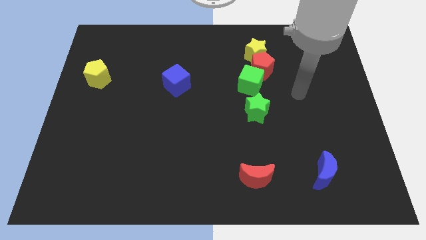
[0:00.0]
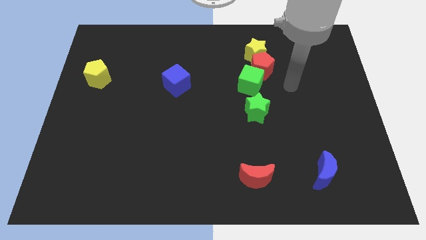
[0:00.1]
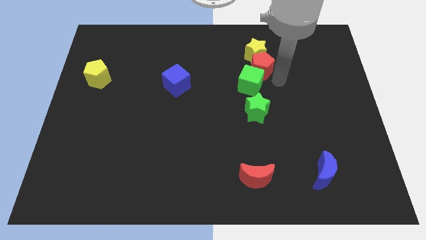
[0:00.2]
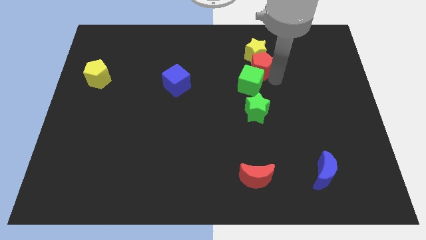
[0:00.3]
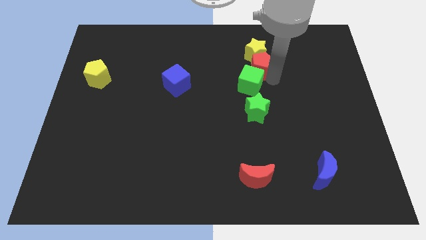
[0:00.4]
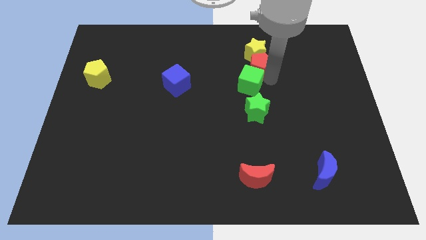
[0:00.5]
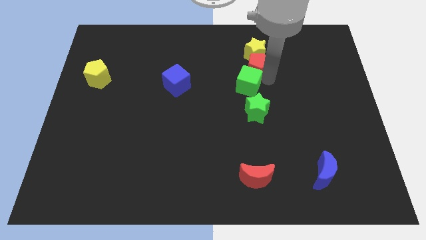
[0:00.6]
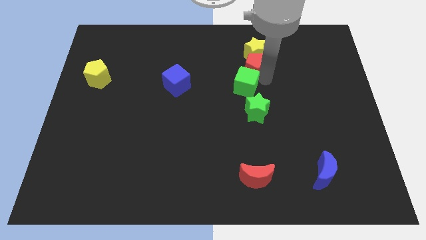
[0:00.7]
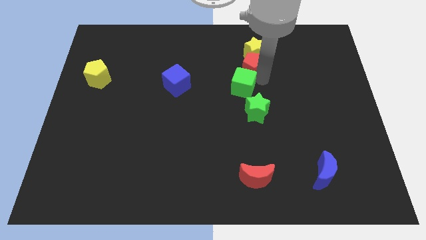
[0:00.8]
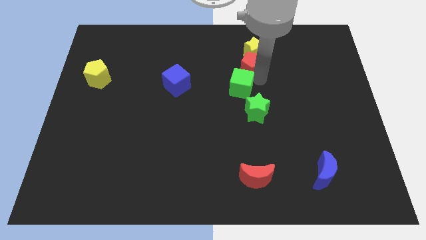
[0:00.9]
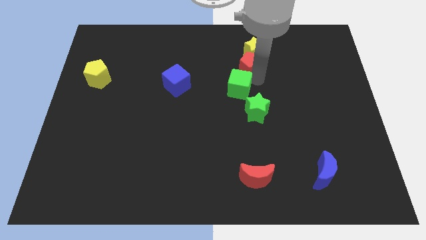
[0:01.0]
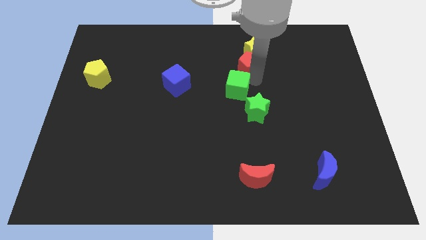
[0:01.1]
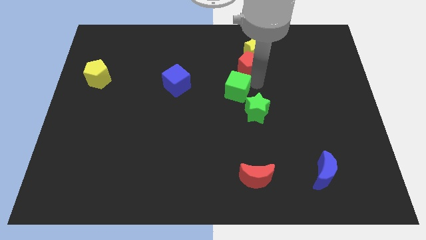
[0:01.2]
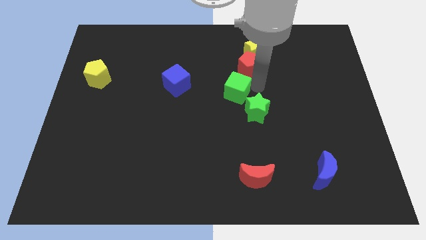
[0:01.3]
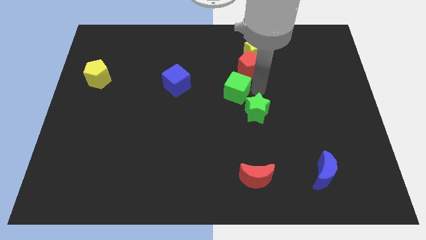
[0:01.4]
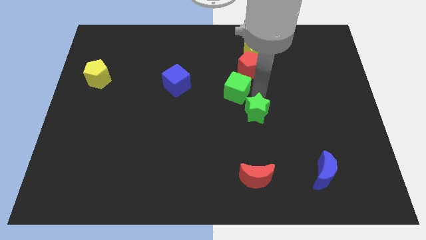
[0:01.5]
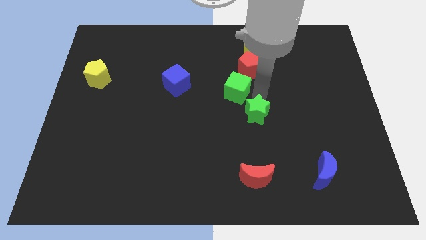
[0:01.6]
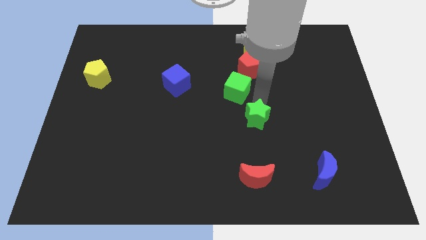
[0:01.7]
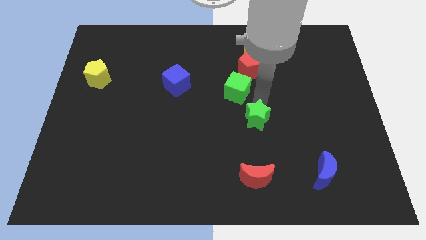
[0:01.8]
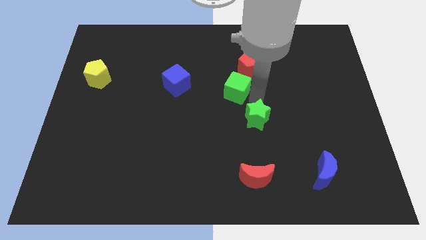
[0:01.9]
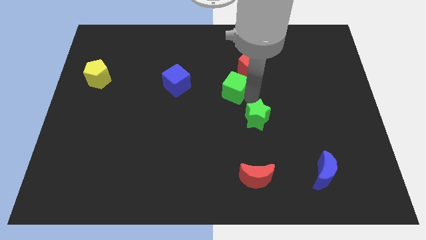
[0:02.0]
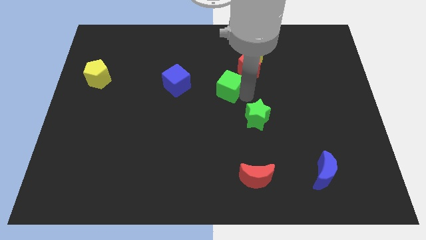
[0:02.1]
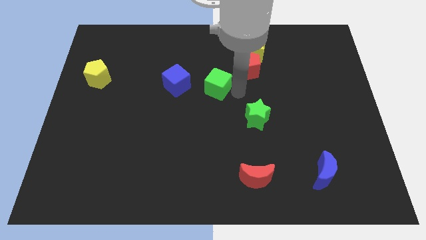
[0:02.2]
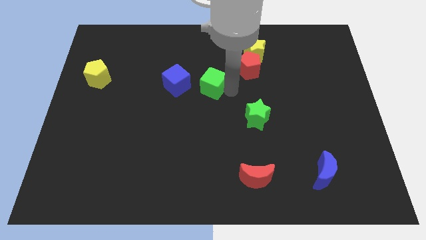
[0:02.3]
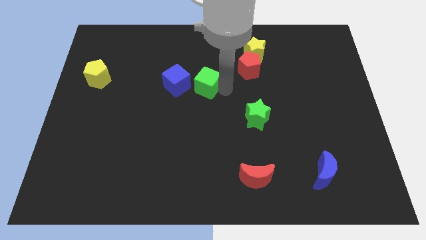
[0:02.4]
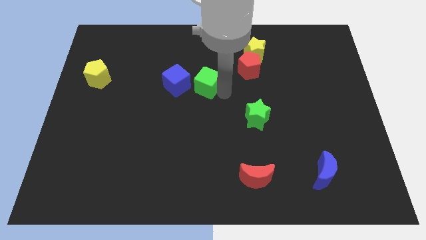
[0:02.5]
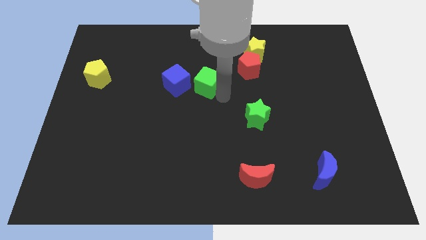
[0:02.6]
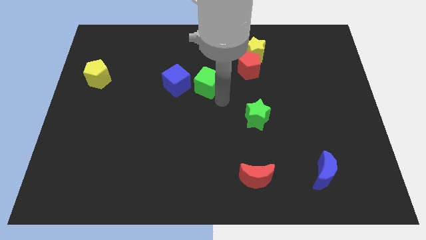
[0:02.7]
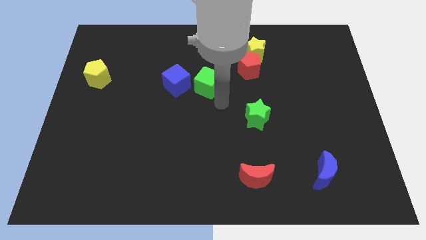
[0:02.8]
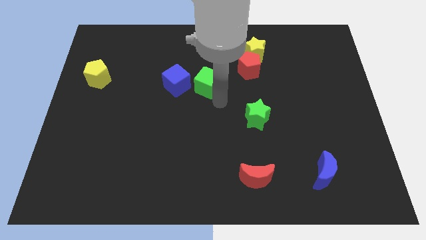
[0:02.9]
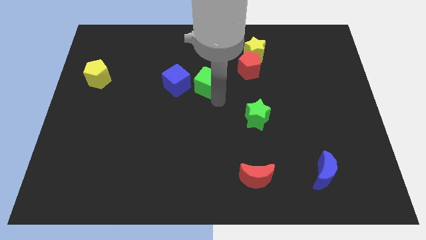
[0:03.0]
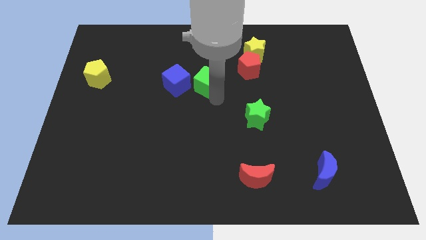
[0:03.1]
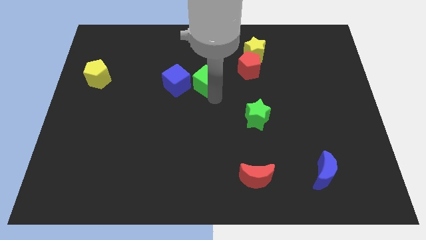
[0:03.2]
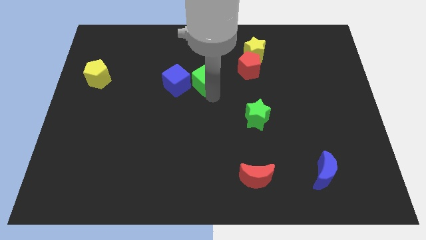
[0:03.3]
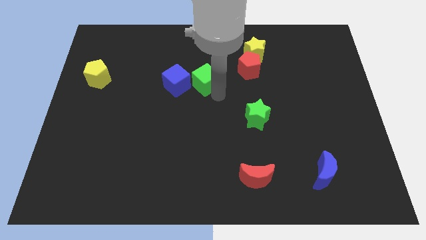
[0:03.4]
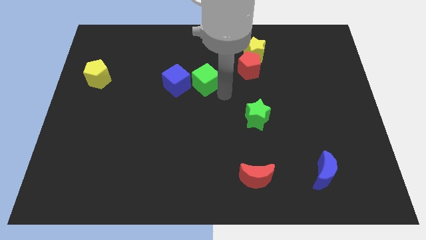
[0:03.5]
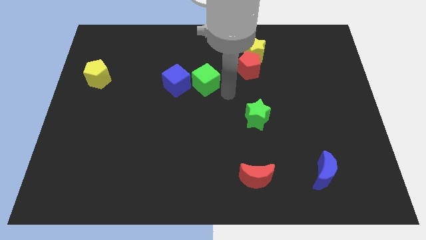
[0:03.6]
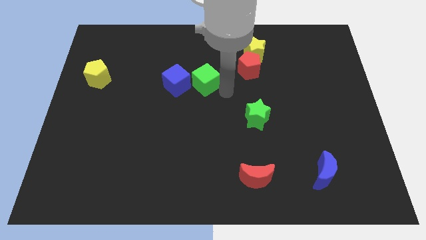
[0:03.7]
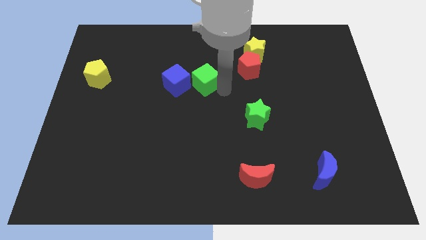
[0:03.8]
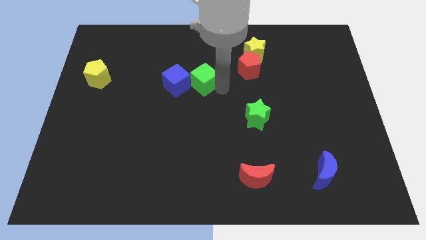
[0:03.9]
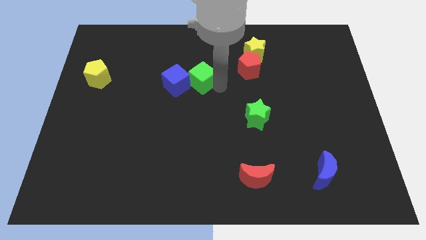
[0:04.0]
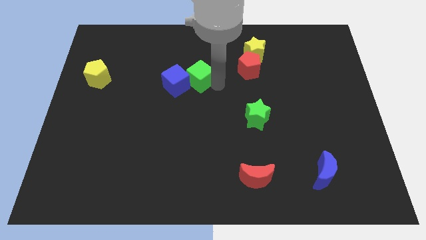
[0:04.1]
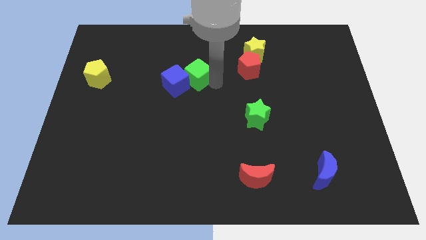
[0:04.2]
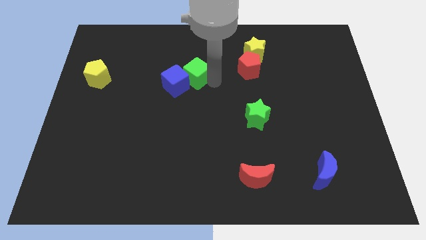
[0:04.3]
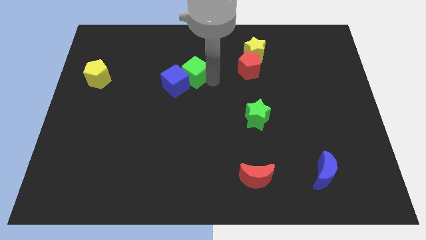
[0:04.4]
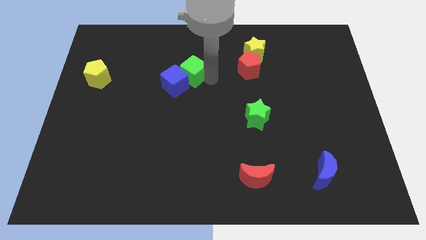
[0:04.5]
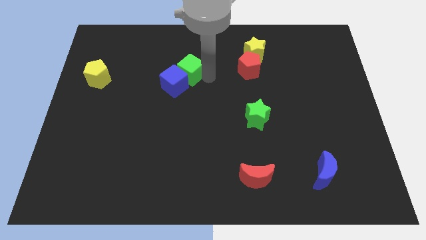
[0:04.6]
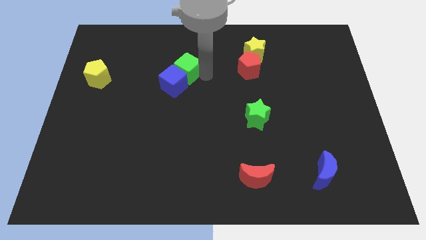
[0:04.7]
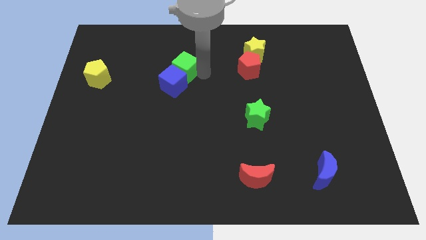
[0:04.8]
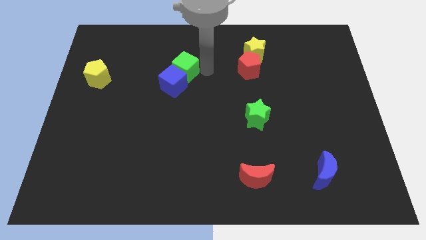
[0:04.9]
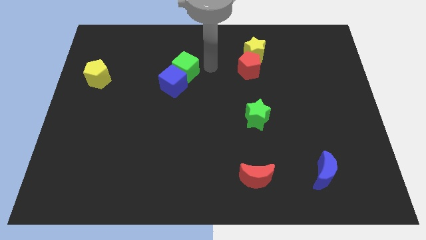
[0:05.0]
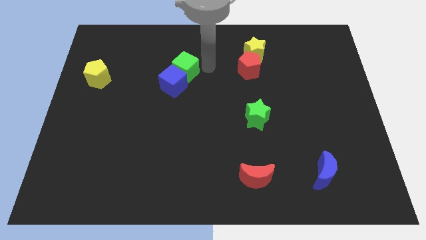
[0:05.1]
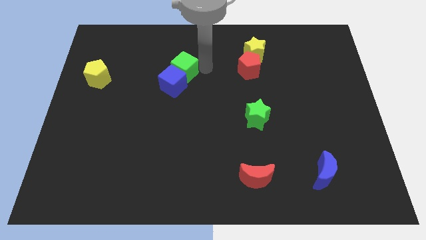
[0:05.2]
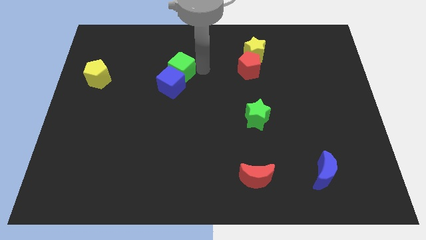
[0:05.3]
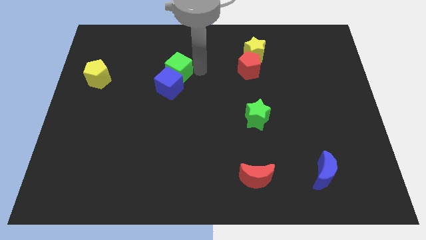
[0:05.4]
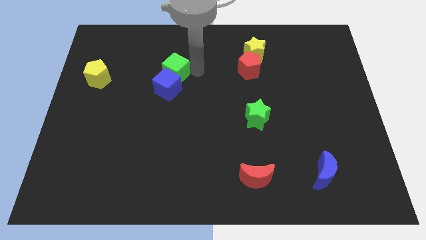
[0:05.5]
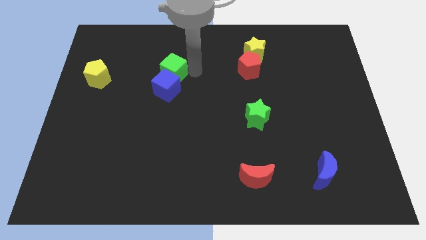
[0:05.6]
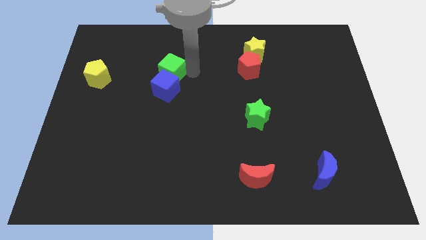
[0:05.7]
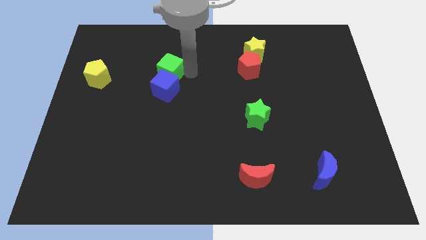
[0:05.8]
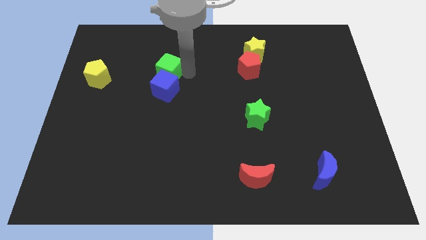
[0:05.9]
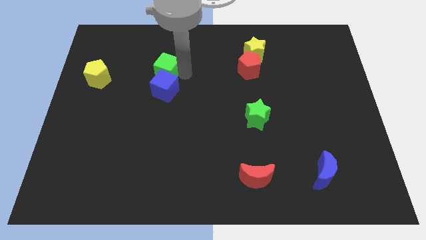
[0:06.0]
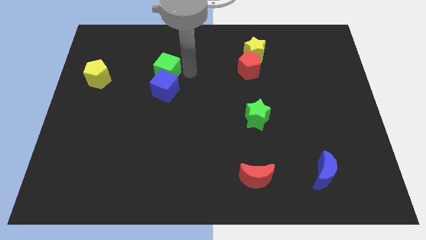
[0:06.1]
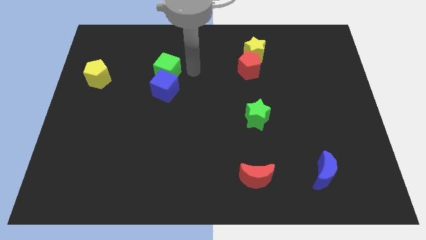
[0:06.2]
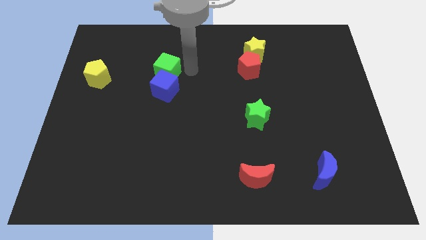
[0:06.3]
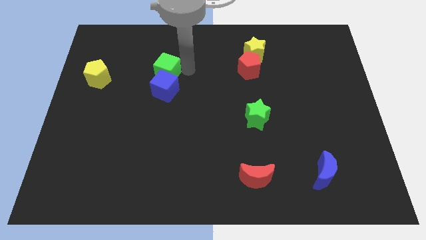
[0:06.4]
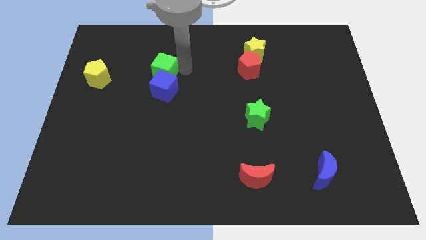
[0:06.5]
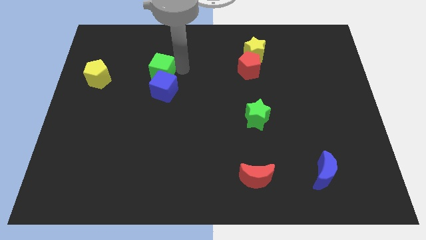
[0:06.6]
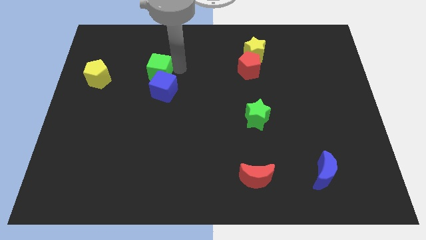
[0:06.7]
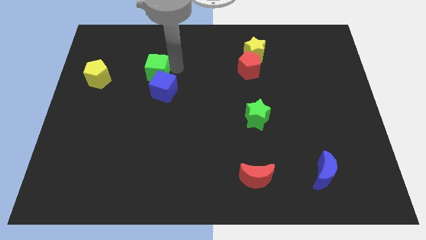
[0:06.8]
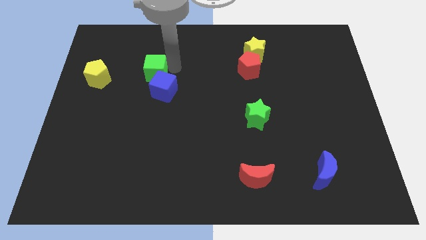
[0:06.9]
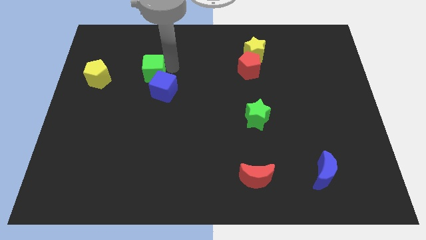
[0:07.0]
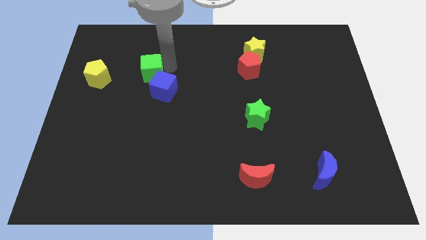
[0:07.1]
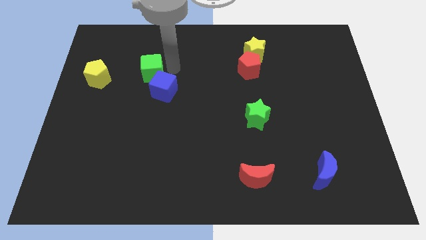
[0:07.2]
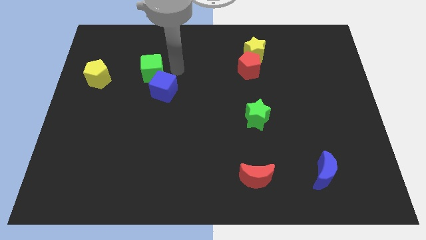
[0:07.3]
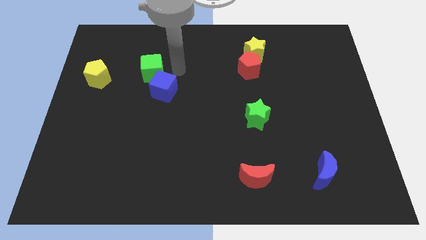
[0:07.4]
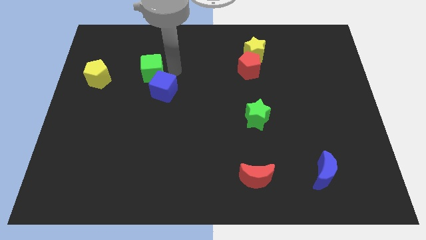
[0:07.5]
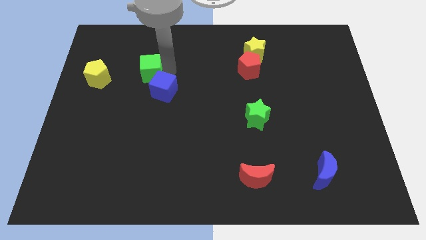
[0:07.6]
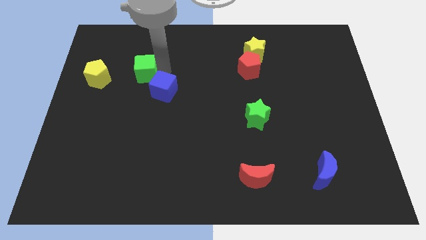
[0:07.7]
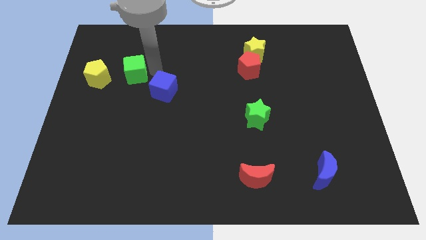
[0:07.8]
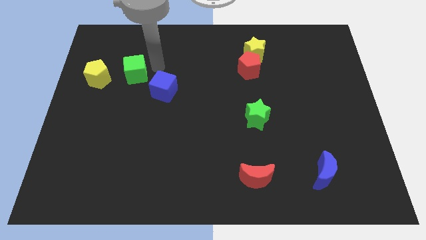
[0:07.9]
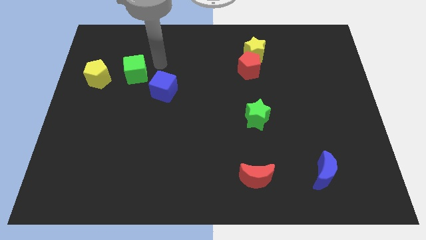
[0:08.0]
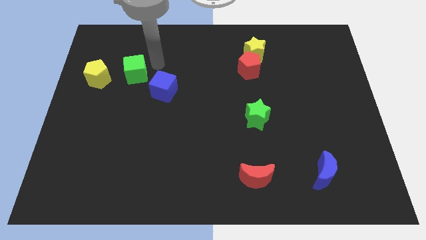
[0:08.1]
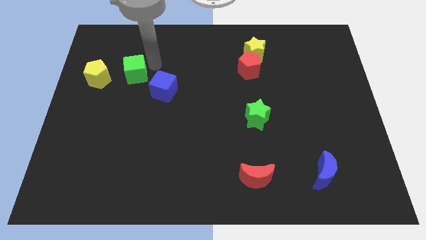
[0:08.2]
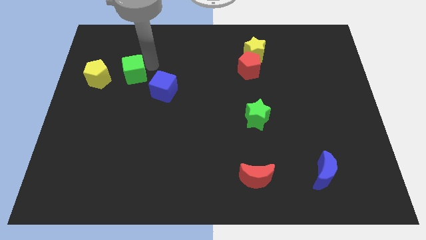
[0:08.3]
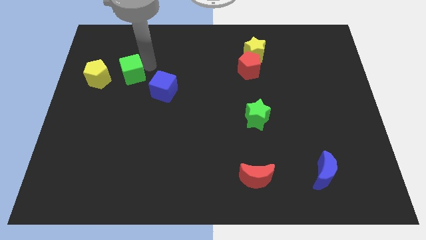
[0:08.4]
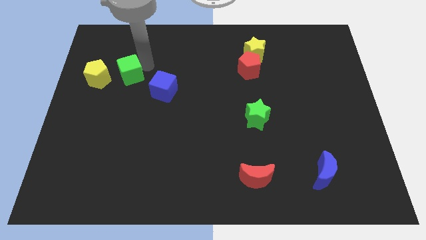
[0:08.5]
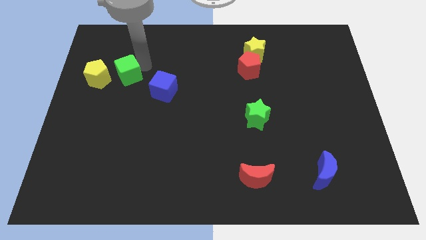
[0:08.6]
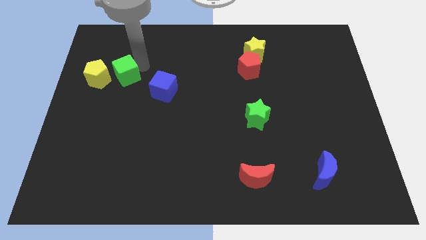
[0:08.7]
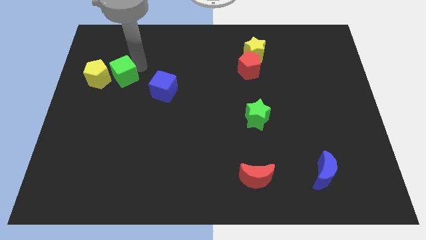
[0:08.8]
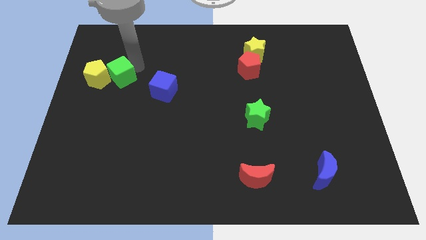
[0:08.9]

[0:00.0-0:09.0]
slide the green cube close to the yellow pentagon
